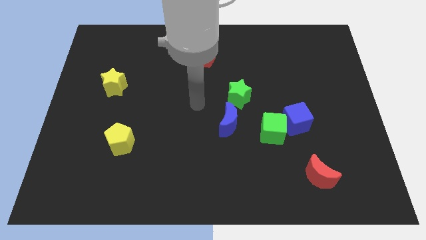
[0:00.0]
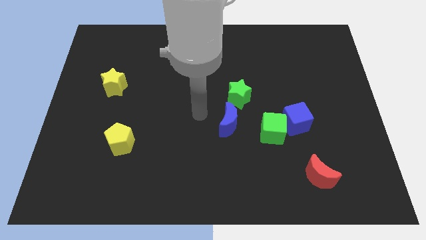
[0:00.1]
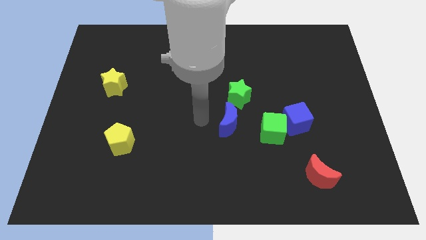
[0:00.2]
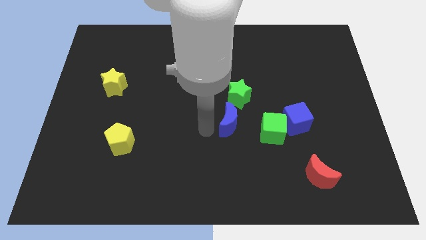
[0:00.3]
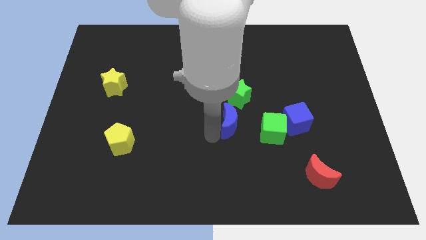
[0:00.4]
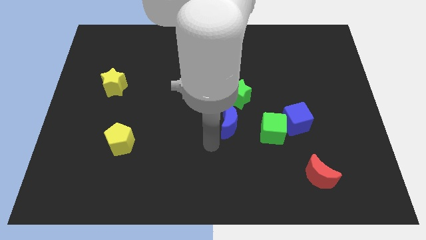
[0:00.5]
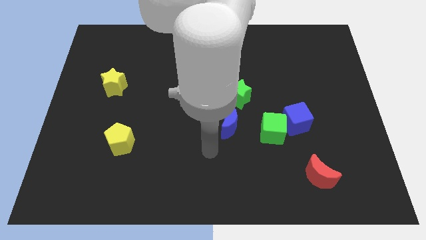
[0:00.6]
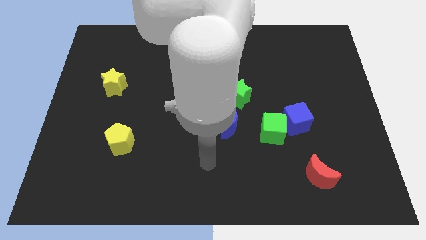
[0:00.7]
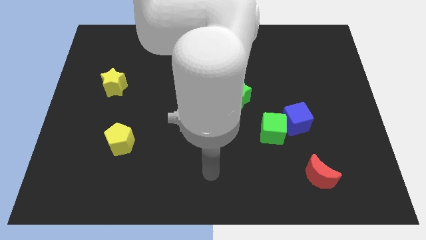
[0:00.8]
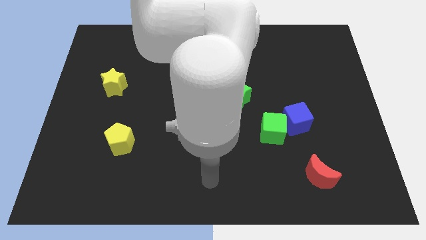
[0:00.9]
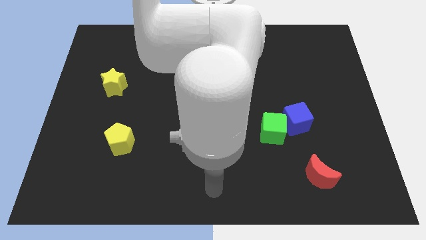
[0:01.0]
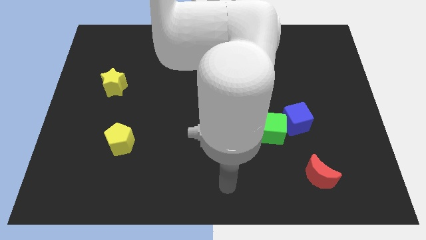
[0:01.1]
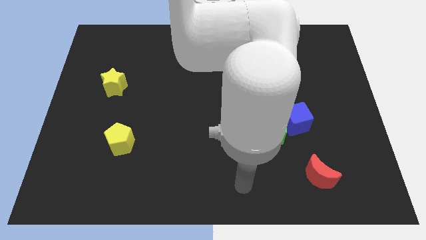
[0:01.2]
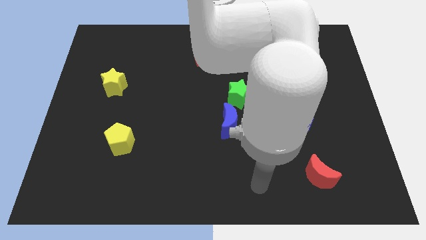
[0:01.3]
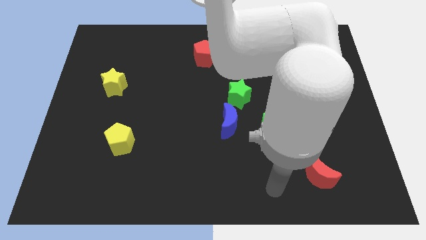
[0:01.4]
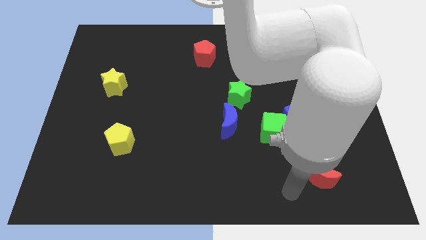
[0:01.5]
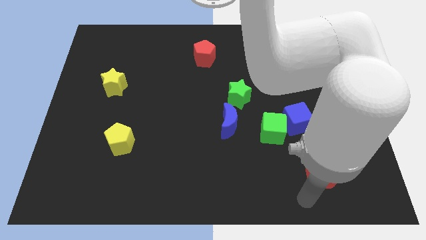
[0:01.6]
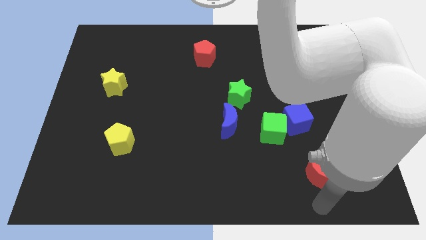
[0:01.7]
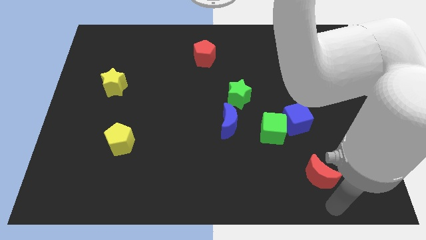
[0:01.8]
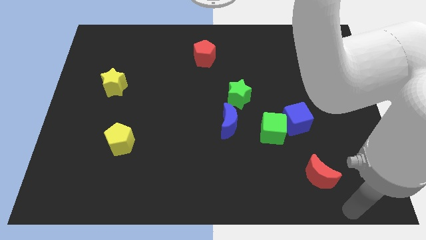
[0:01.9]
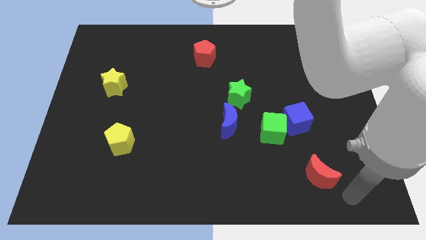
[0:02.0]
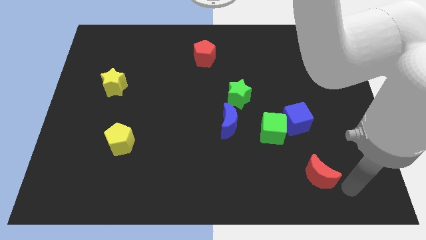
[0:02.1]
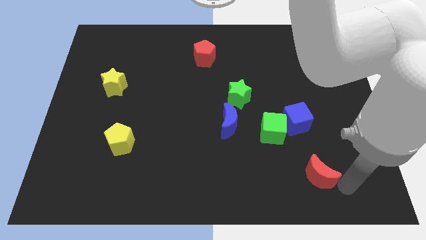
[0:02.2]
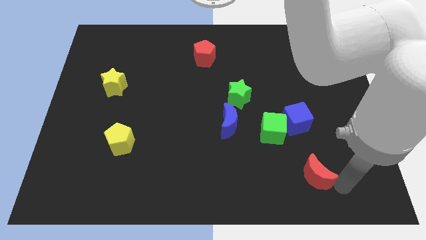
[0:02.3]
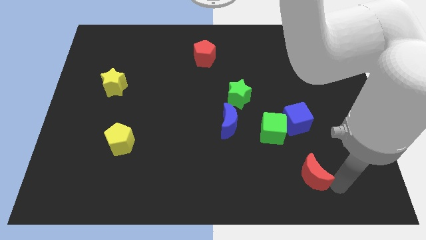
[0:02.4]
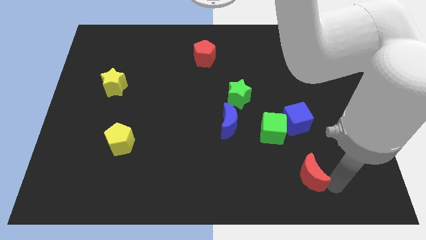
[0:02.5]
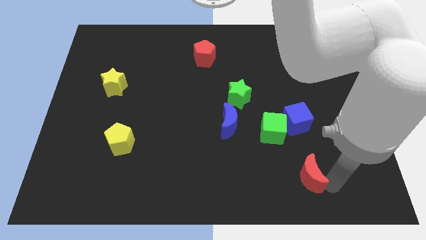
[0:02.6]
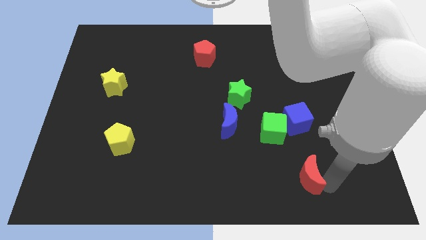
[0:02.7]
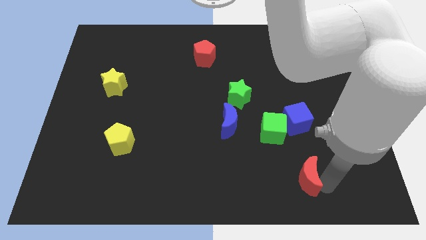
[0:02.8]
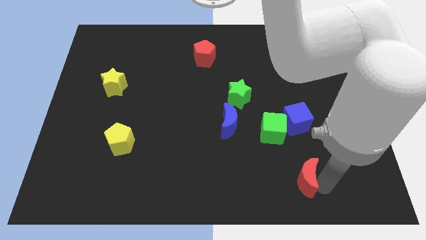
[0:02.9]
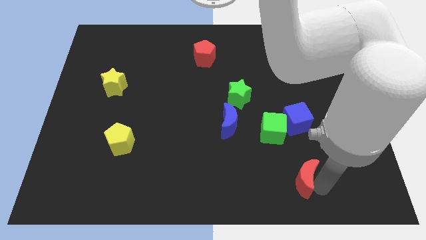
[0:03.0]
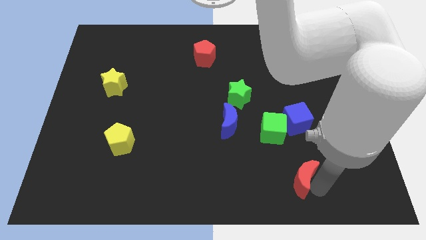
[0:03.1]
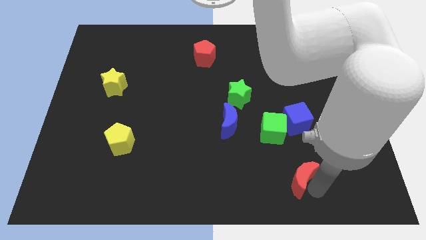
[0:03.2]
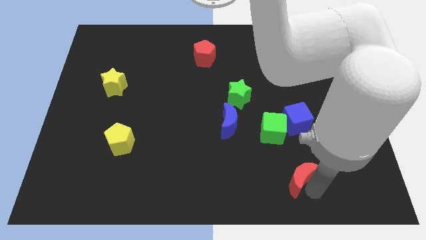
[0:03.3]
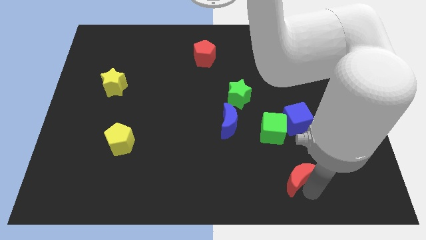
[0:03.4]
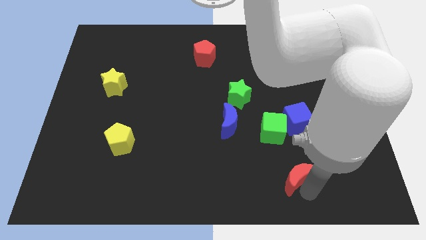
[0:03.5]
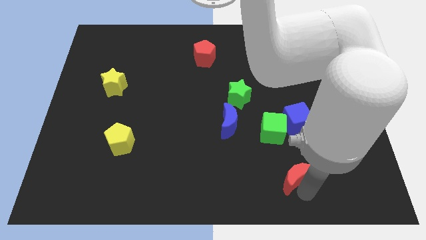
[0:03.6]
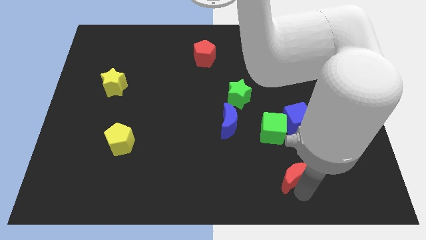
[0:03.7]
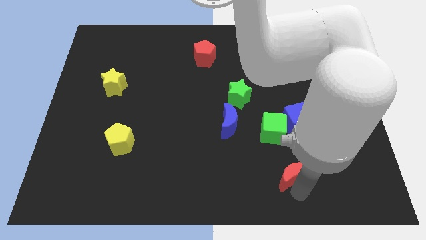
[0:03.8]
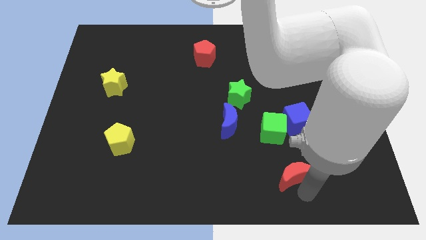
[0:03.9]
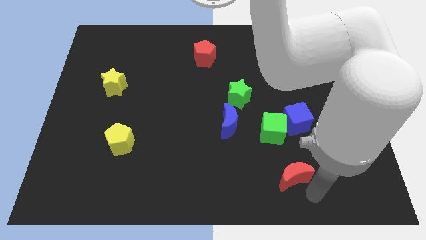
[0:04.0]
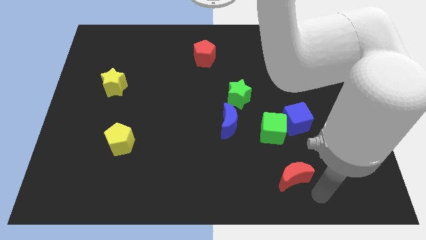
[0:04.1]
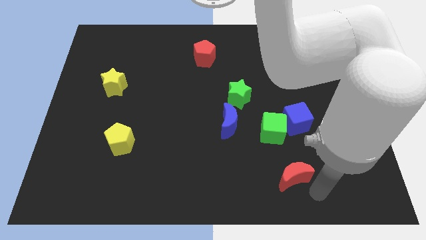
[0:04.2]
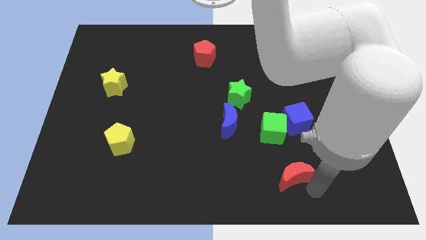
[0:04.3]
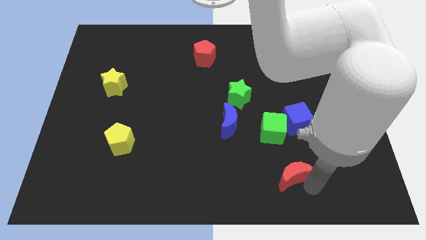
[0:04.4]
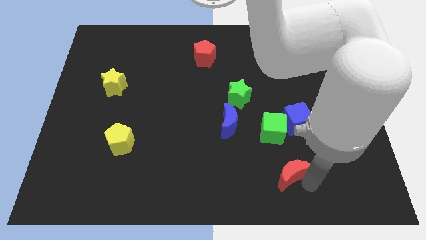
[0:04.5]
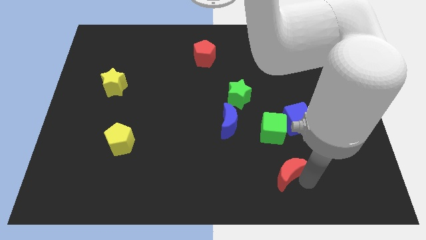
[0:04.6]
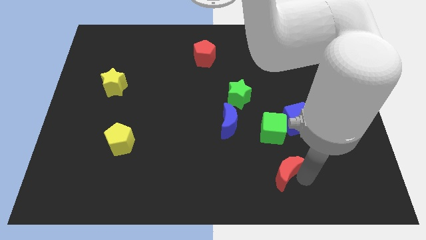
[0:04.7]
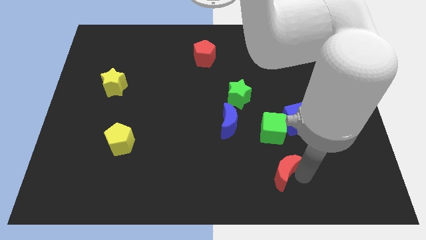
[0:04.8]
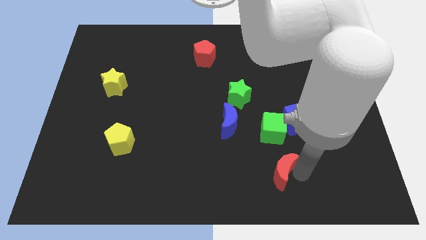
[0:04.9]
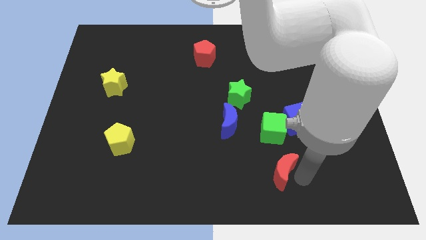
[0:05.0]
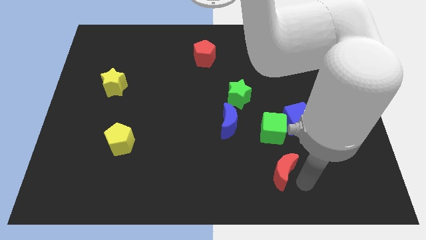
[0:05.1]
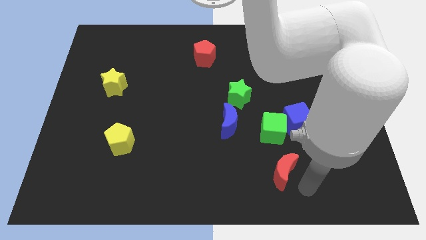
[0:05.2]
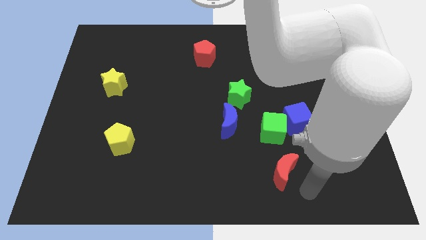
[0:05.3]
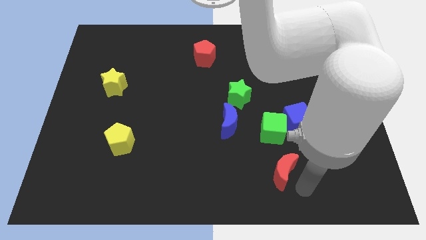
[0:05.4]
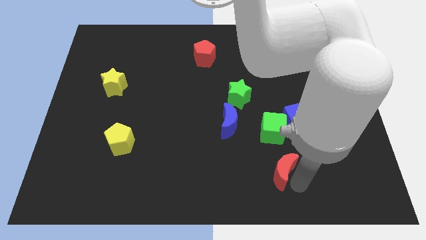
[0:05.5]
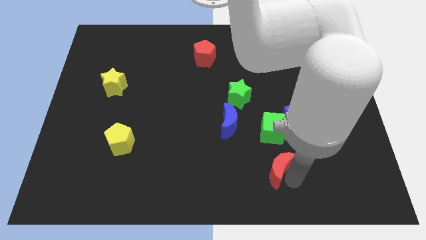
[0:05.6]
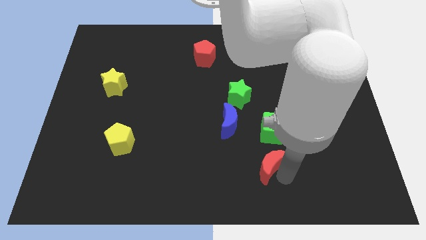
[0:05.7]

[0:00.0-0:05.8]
slide the red moon somewhat upwards and to the left diagonally

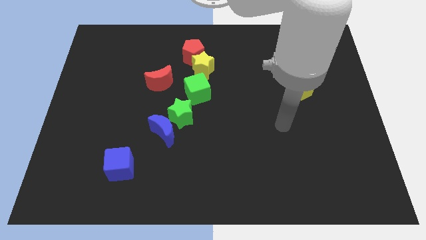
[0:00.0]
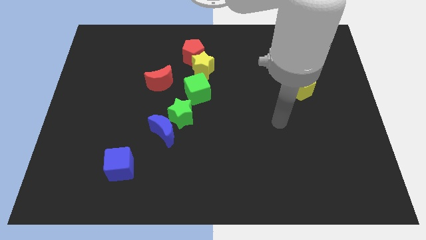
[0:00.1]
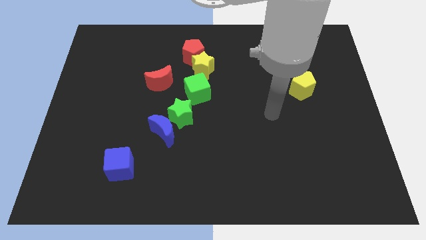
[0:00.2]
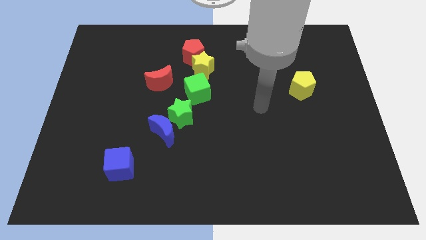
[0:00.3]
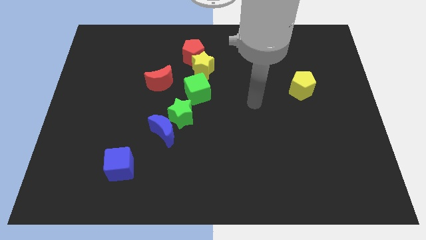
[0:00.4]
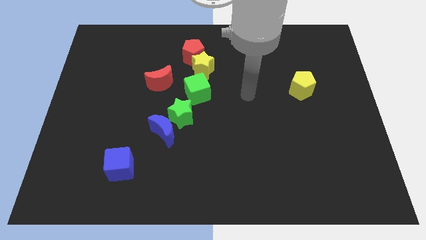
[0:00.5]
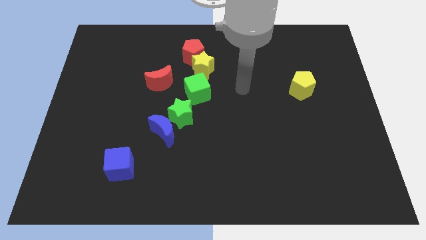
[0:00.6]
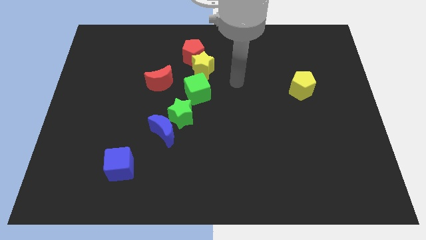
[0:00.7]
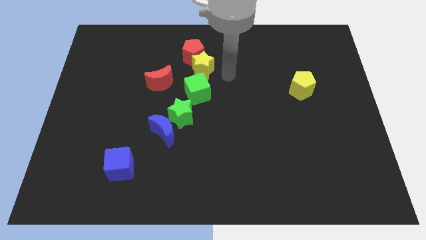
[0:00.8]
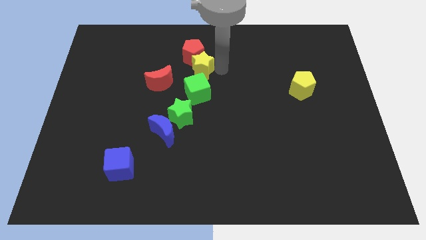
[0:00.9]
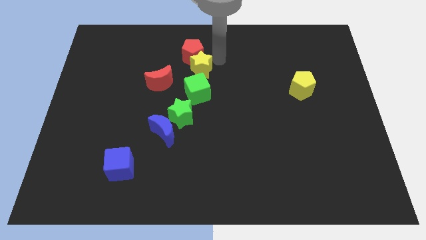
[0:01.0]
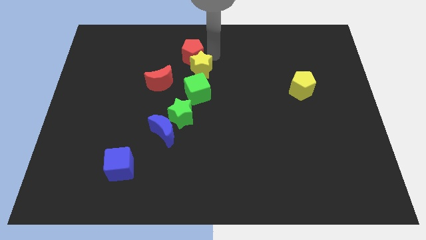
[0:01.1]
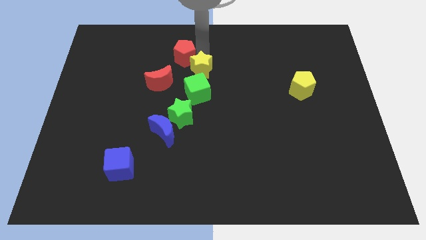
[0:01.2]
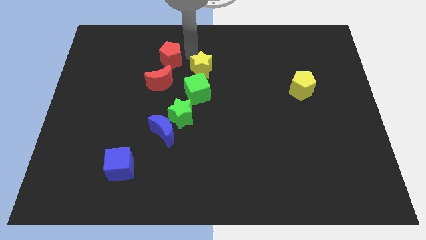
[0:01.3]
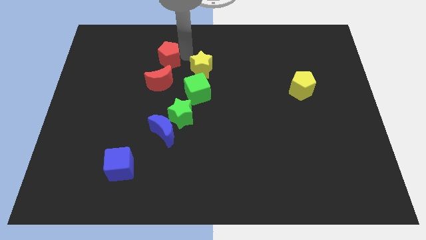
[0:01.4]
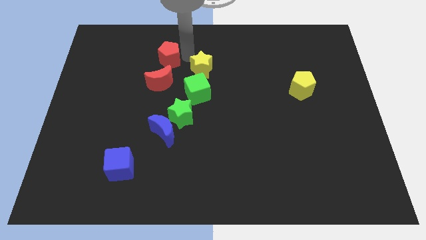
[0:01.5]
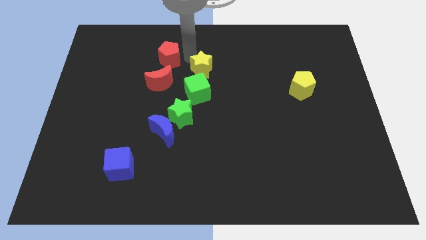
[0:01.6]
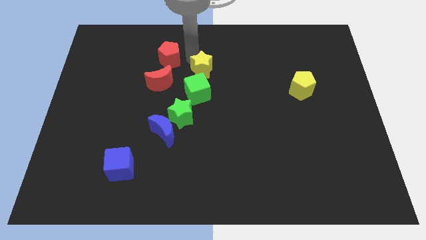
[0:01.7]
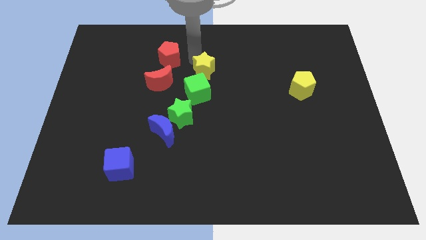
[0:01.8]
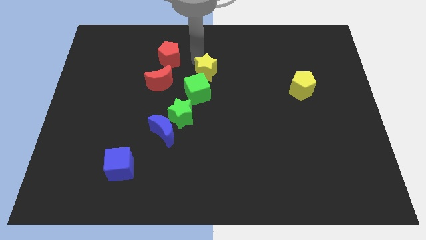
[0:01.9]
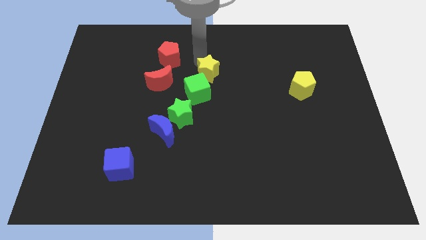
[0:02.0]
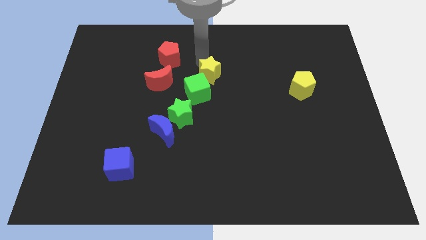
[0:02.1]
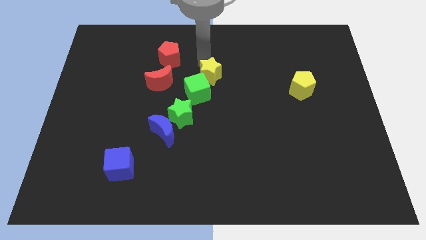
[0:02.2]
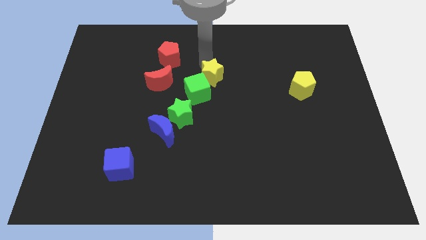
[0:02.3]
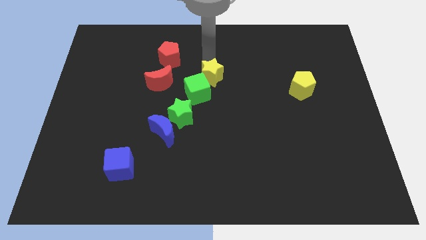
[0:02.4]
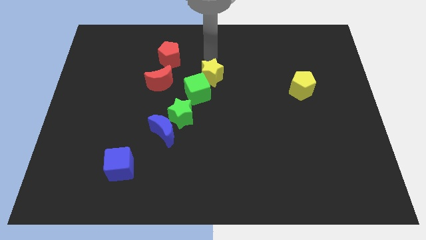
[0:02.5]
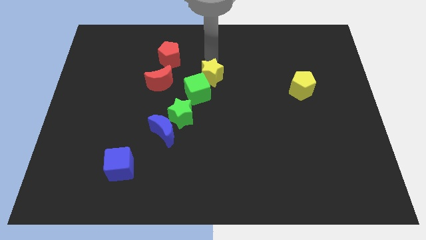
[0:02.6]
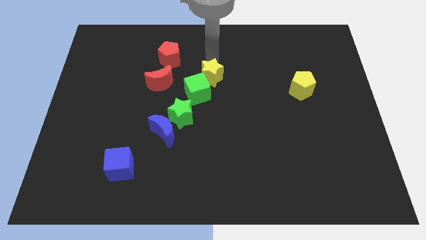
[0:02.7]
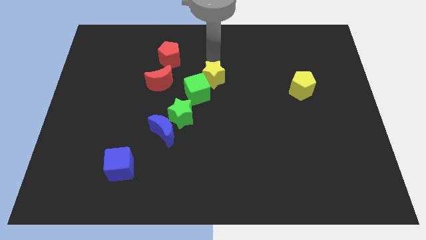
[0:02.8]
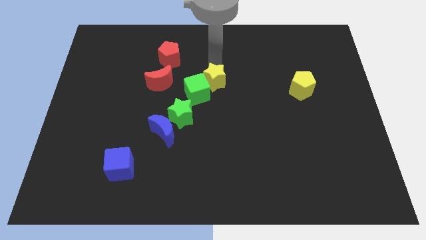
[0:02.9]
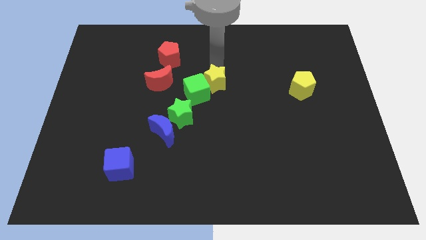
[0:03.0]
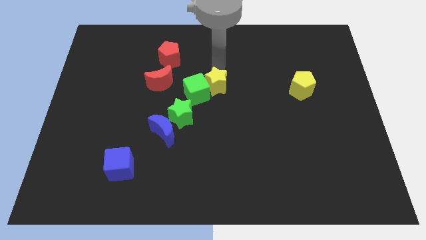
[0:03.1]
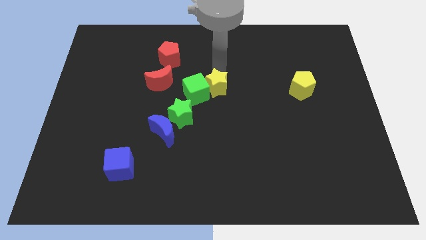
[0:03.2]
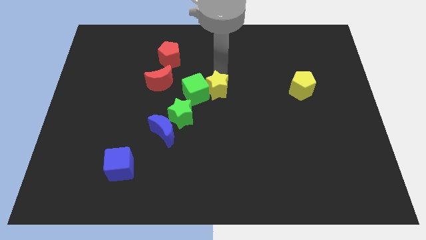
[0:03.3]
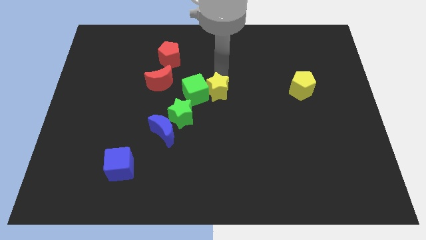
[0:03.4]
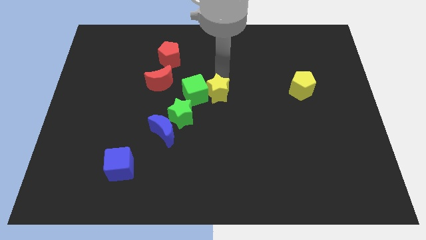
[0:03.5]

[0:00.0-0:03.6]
move the yellow star somewhat down
